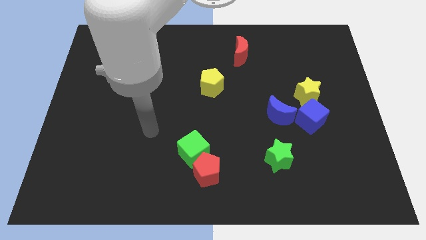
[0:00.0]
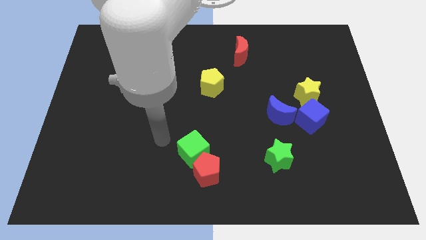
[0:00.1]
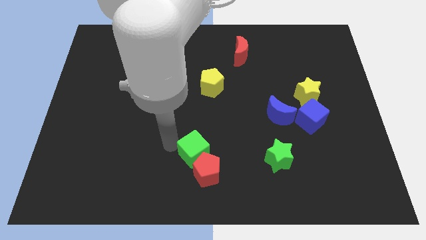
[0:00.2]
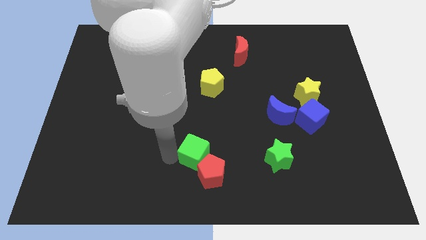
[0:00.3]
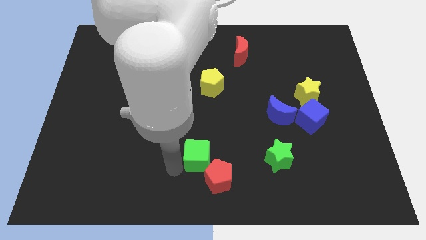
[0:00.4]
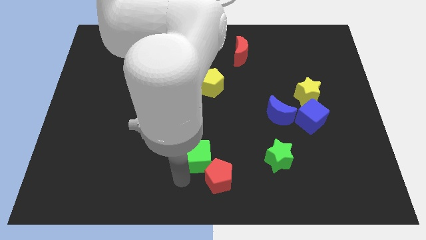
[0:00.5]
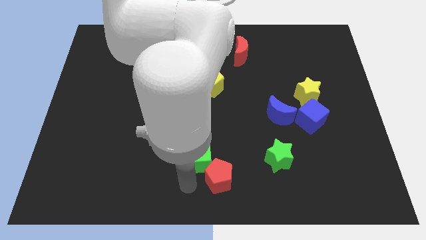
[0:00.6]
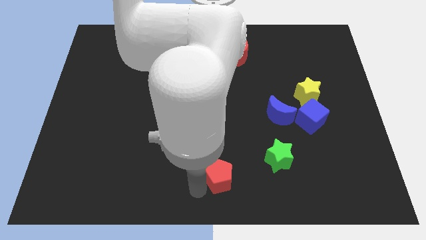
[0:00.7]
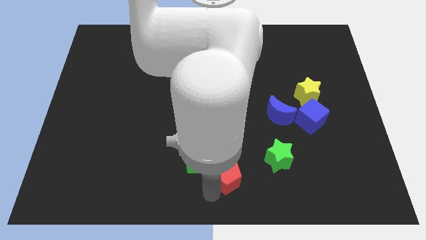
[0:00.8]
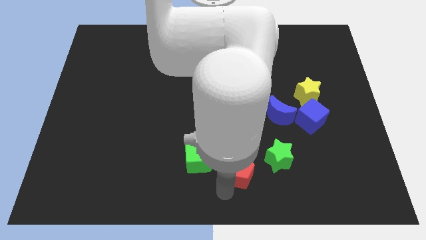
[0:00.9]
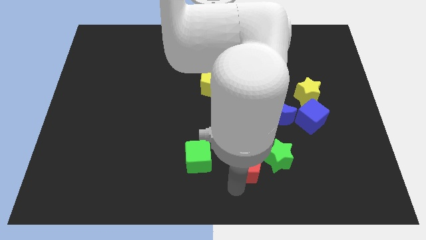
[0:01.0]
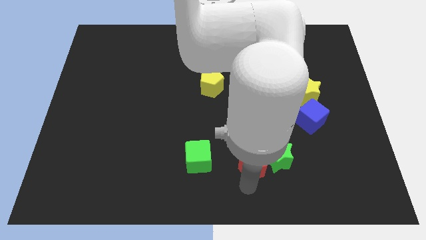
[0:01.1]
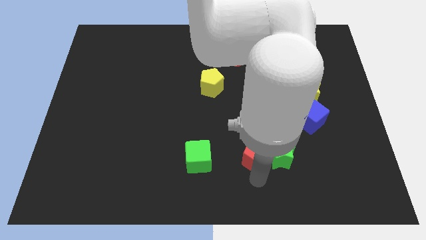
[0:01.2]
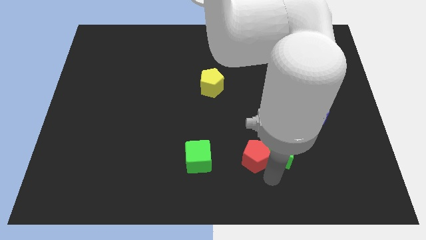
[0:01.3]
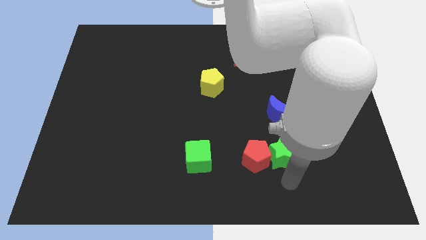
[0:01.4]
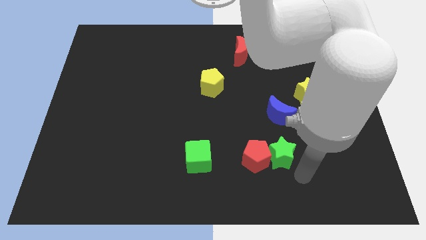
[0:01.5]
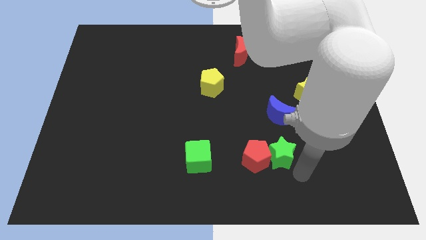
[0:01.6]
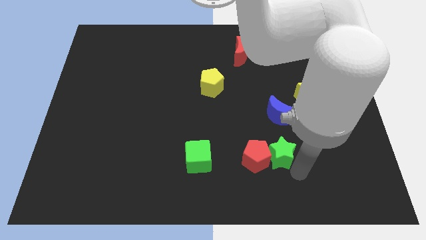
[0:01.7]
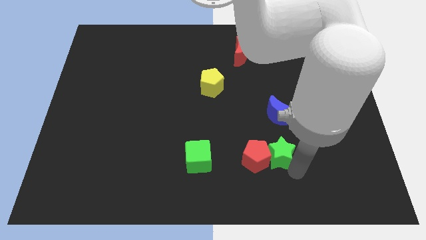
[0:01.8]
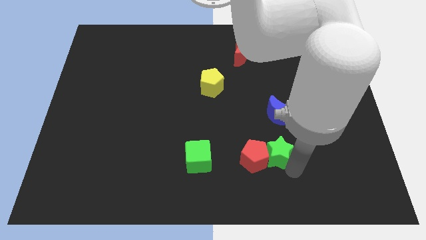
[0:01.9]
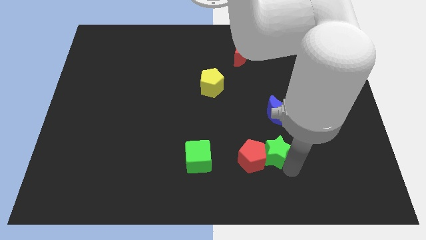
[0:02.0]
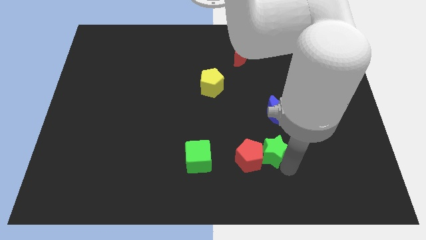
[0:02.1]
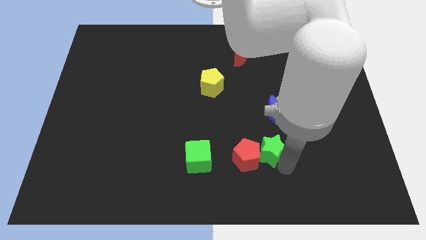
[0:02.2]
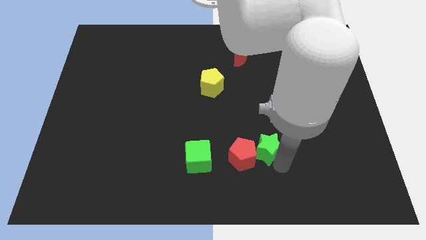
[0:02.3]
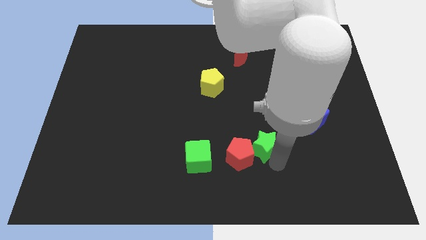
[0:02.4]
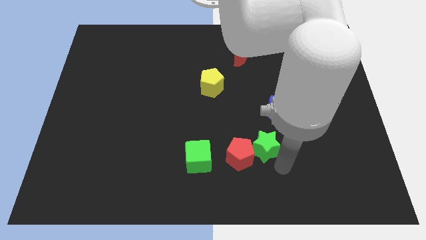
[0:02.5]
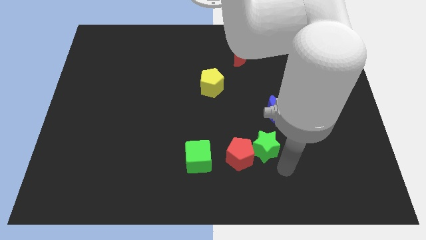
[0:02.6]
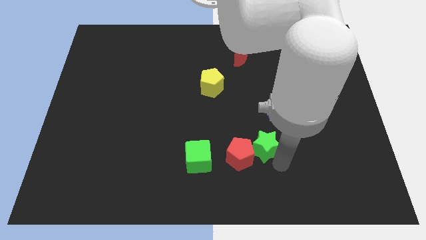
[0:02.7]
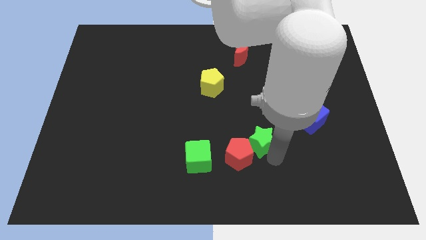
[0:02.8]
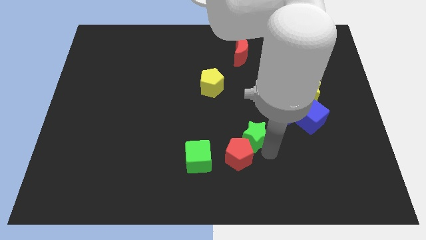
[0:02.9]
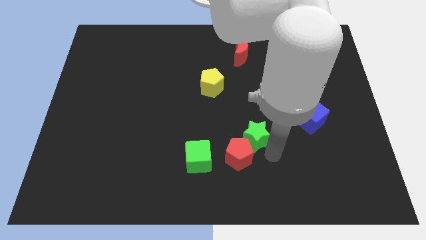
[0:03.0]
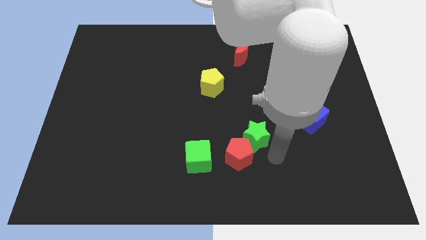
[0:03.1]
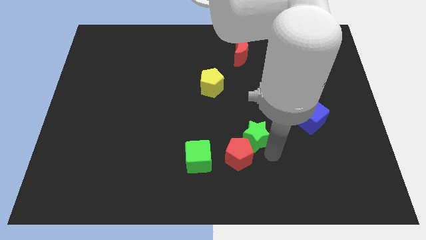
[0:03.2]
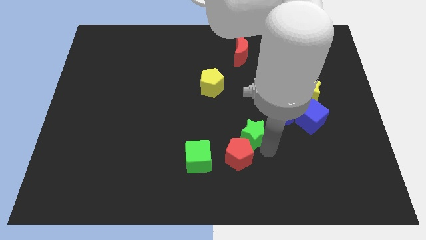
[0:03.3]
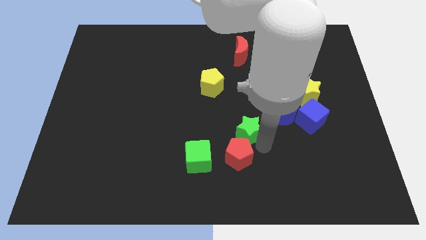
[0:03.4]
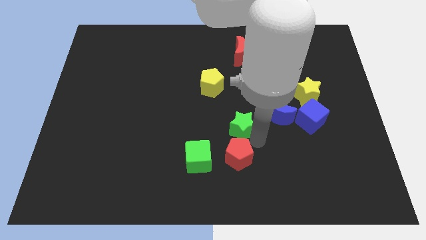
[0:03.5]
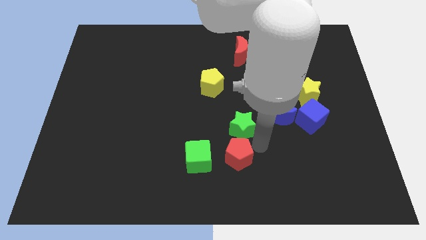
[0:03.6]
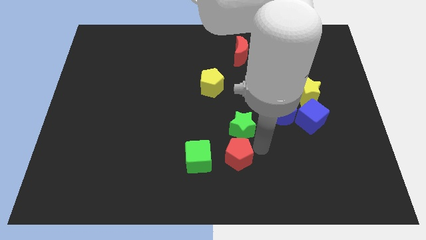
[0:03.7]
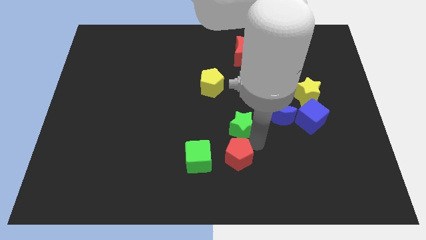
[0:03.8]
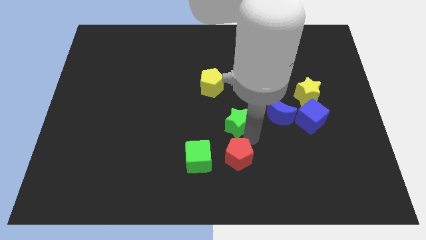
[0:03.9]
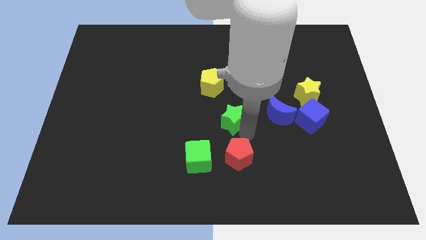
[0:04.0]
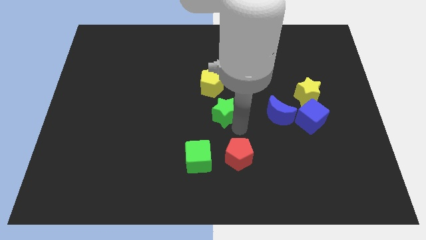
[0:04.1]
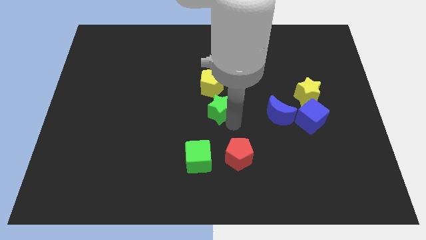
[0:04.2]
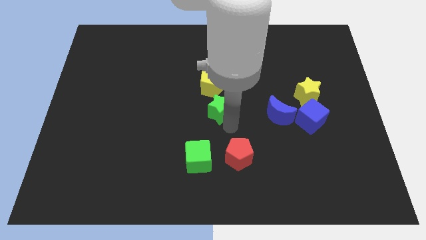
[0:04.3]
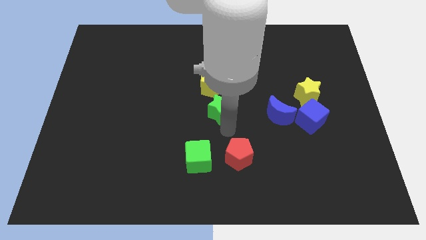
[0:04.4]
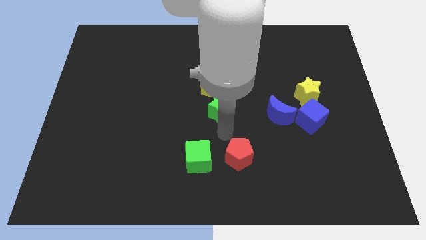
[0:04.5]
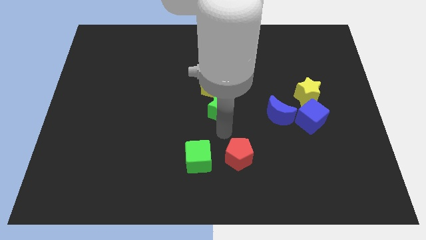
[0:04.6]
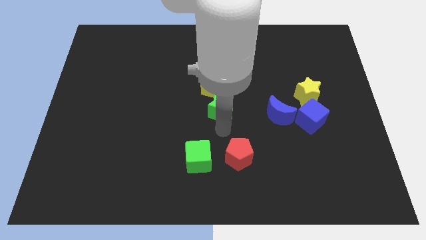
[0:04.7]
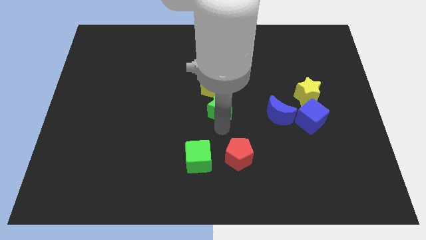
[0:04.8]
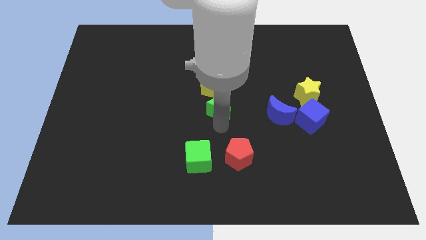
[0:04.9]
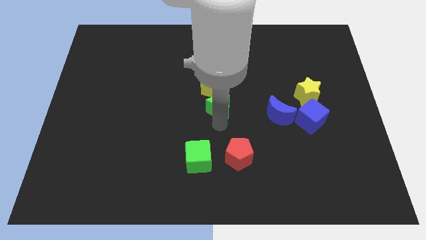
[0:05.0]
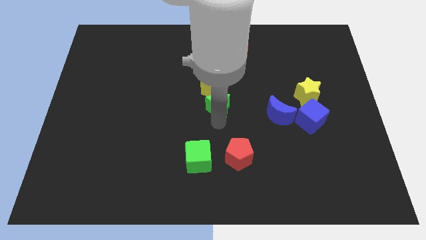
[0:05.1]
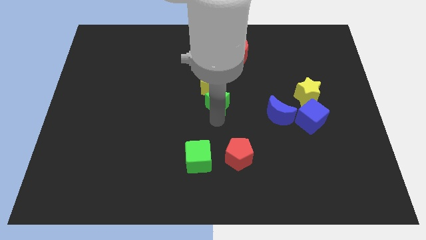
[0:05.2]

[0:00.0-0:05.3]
push the green star to the yellow pentagon
